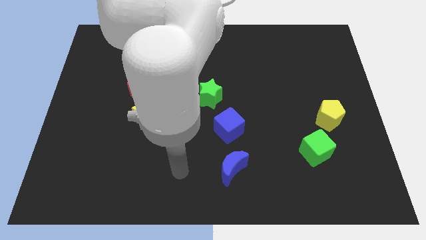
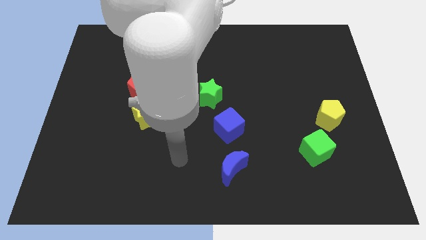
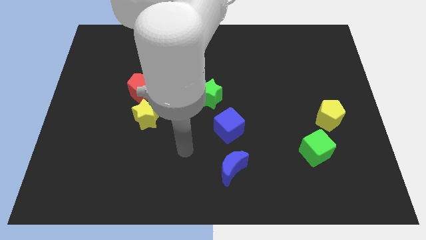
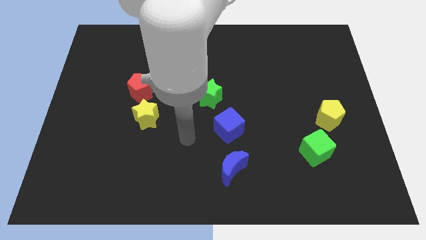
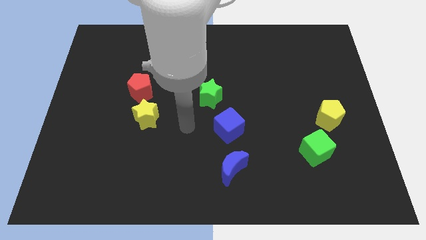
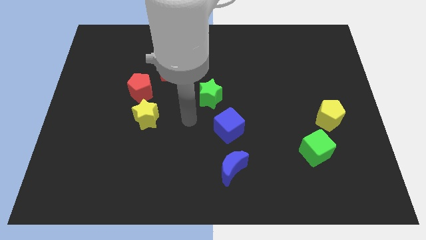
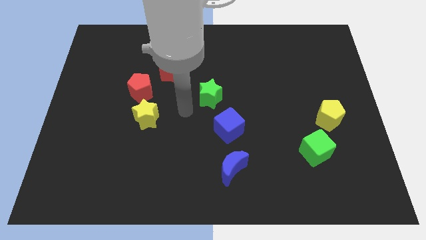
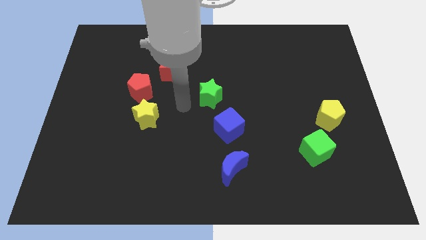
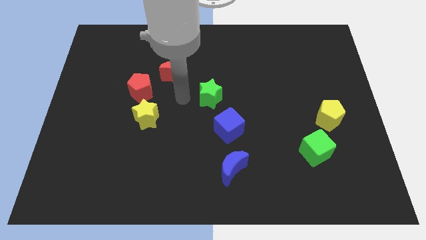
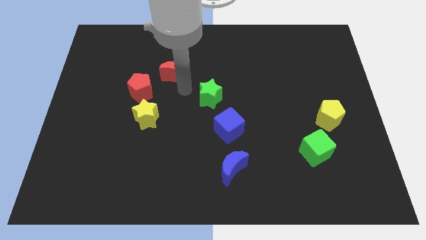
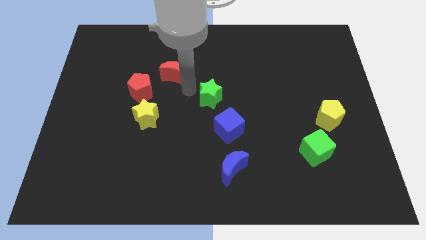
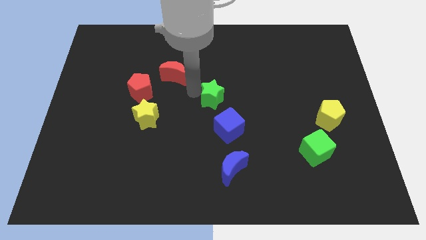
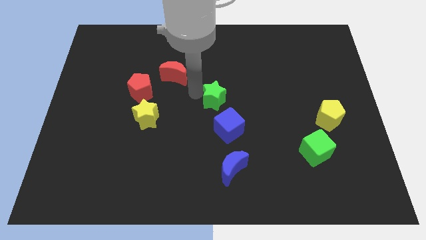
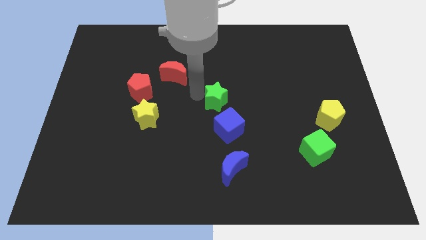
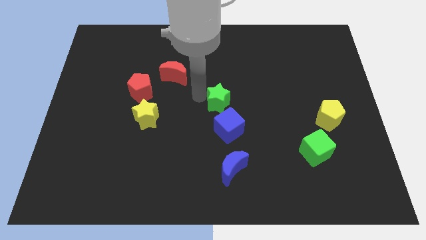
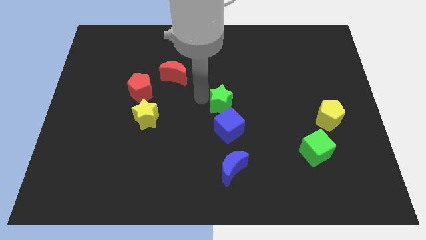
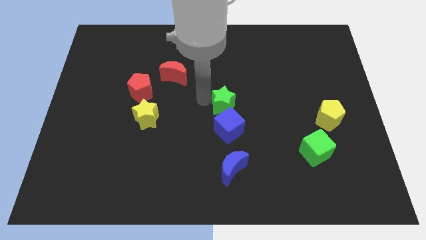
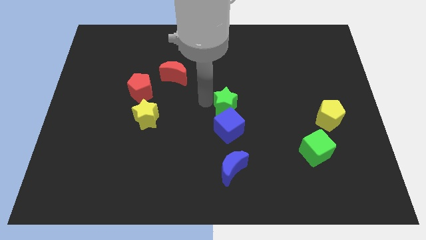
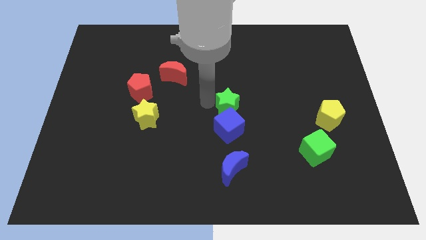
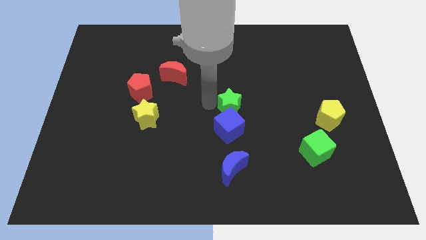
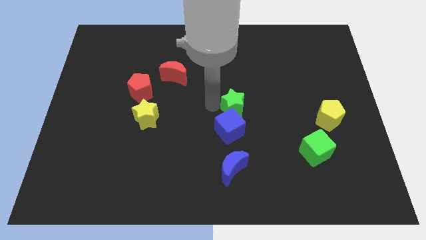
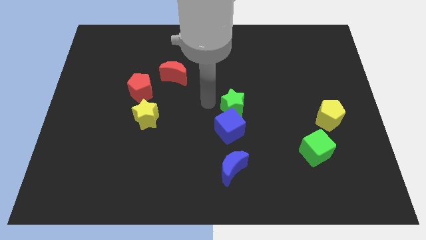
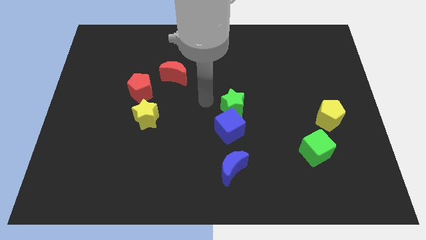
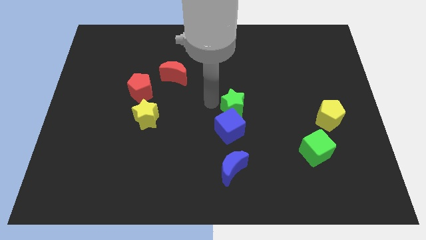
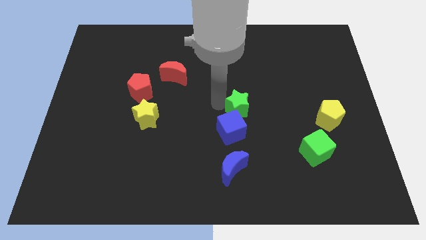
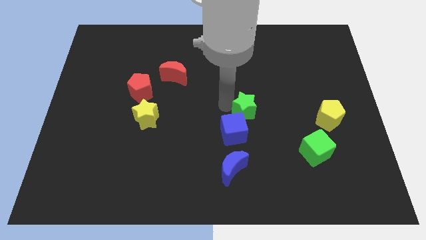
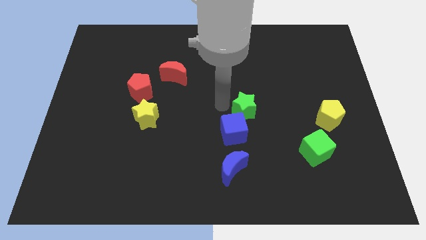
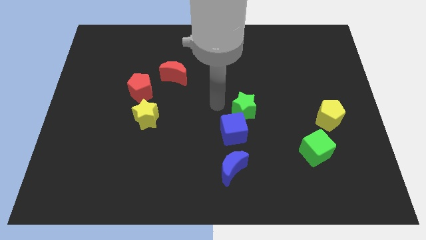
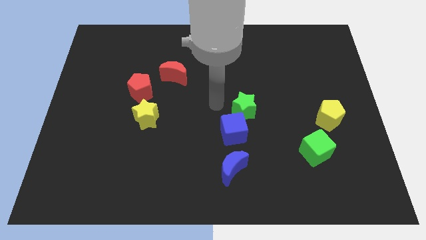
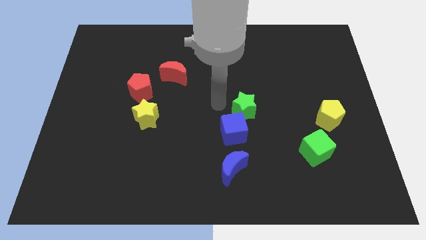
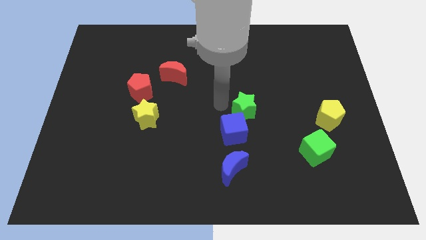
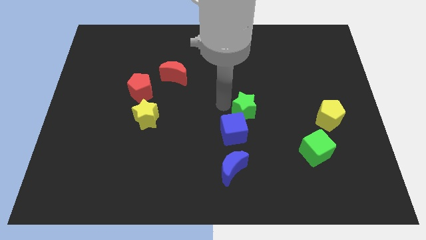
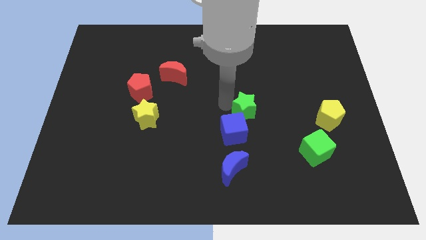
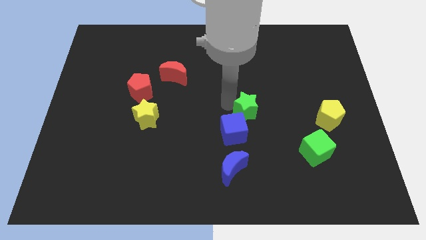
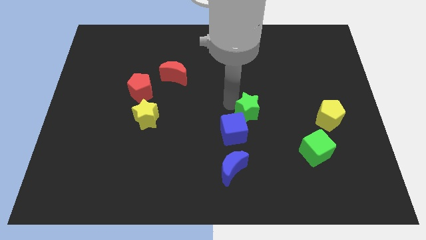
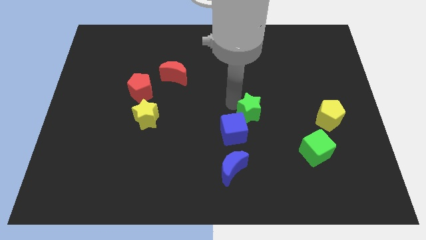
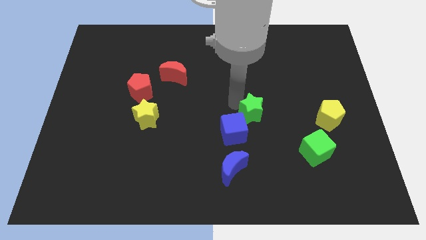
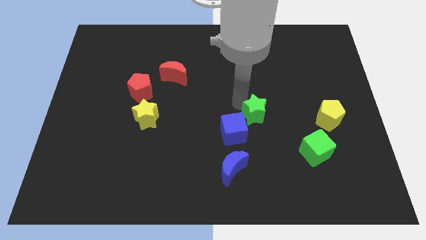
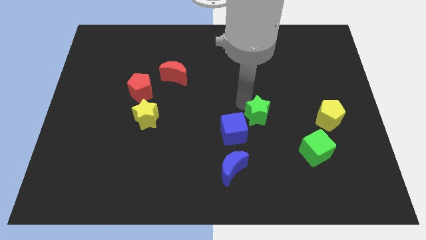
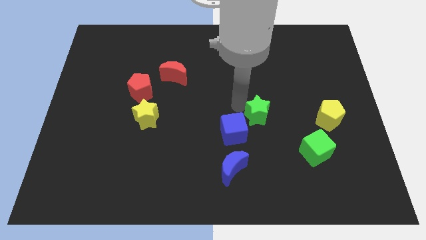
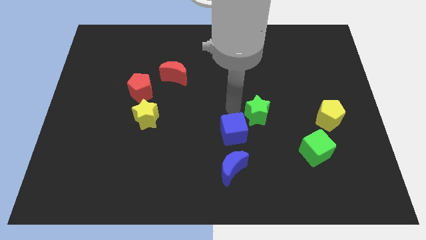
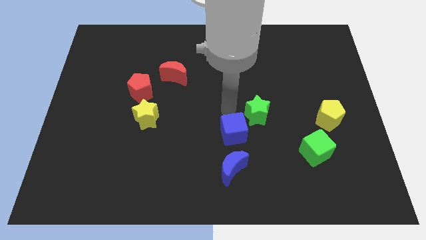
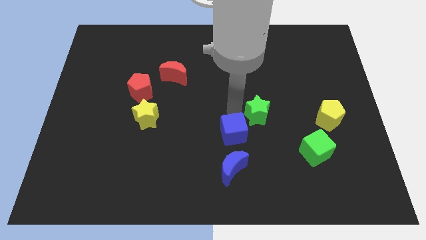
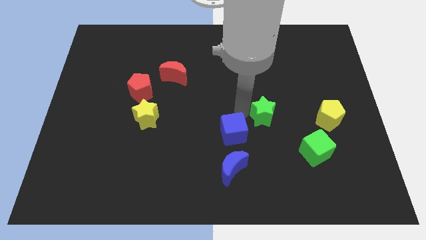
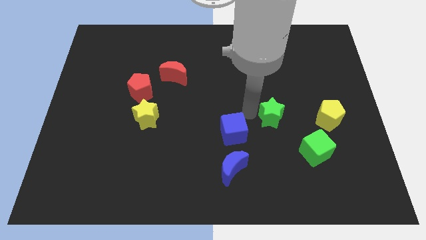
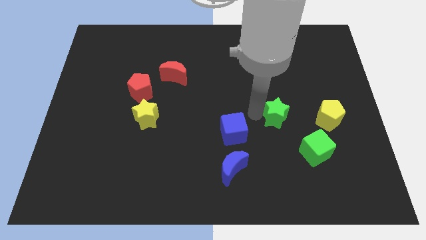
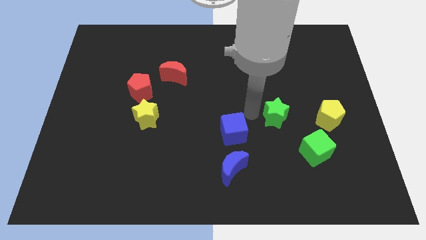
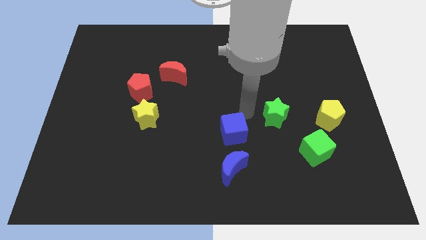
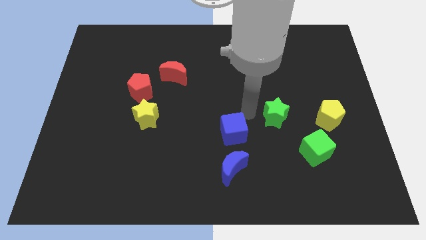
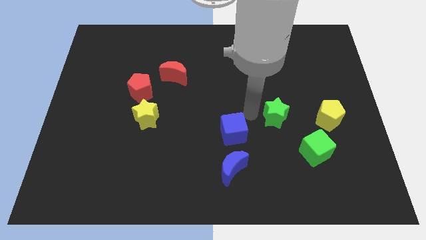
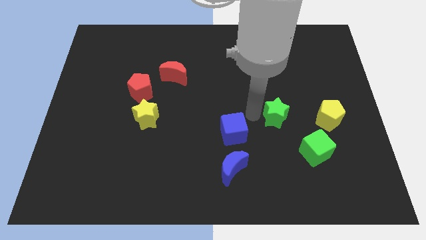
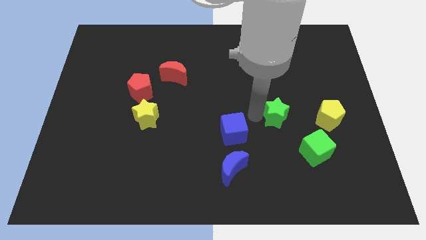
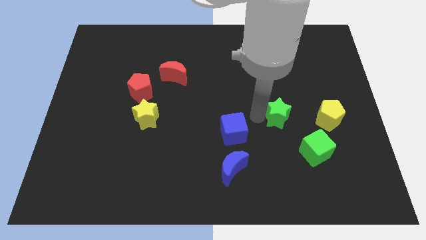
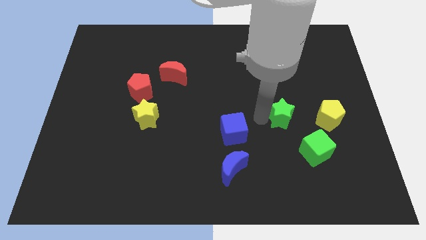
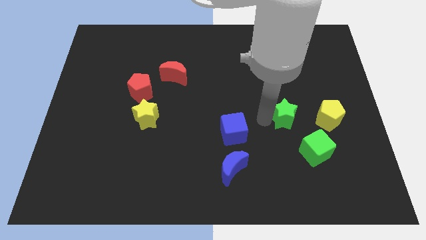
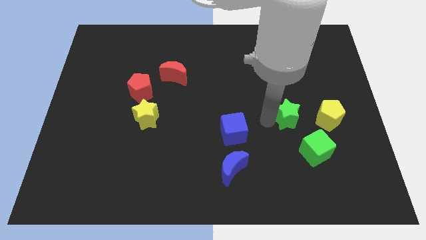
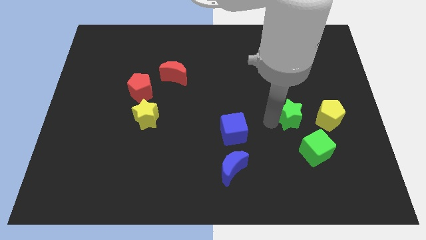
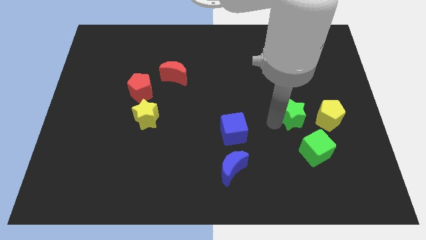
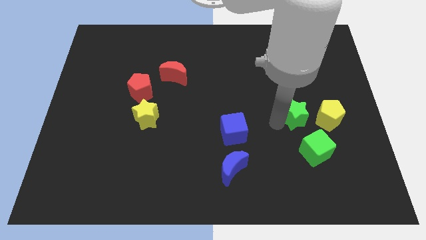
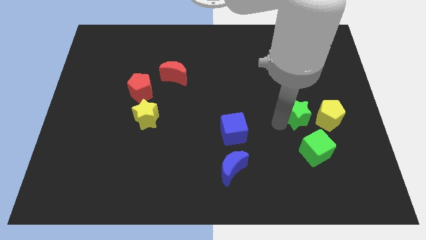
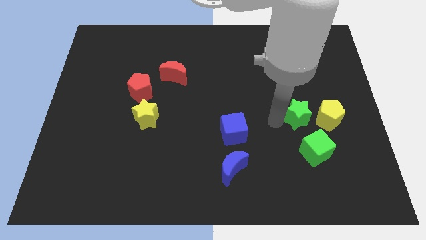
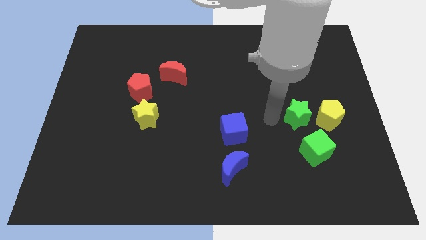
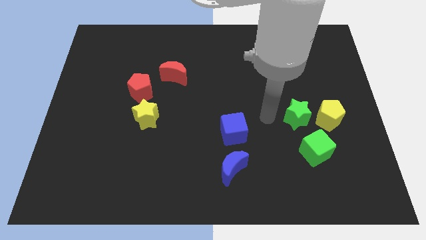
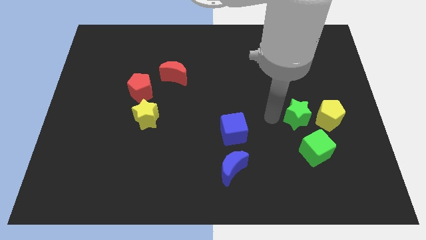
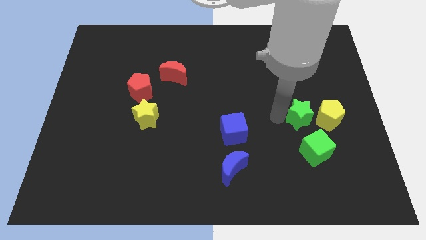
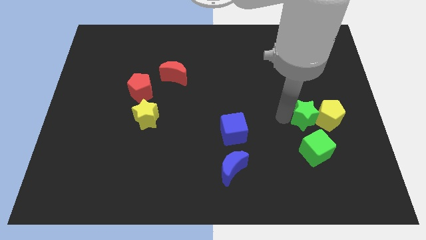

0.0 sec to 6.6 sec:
slide the green star to the yellow pentagon

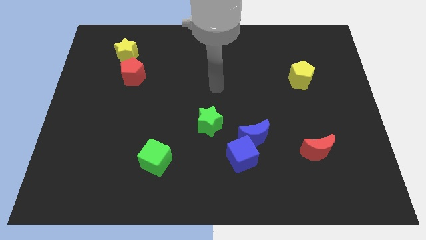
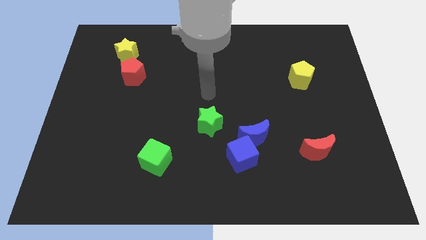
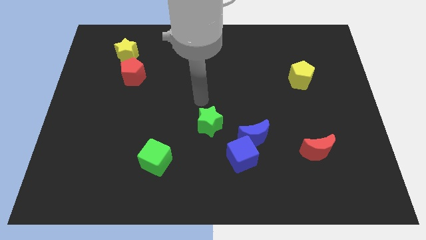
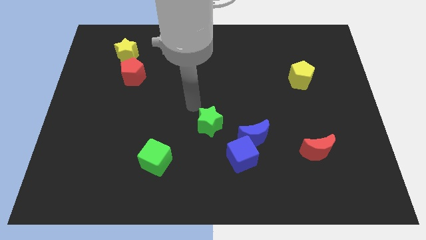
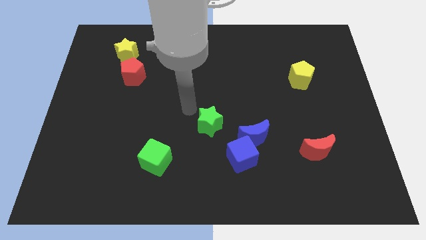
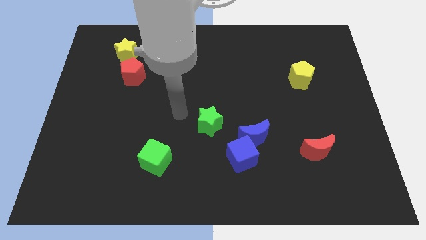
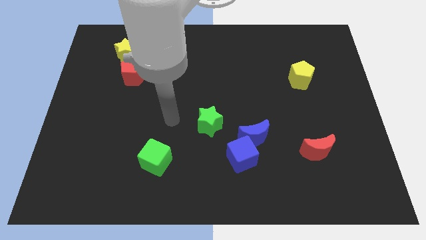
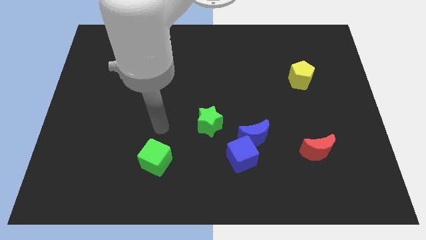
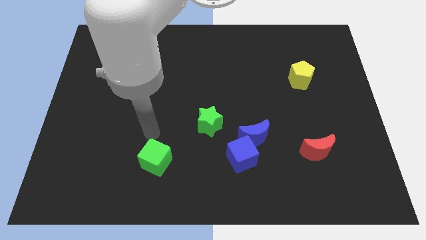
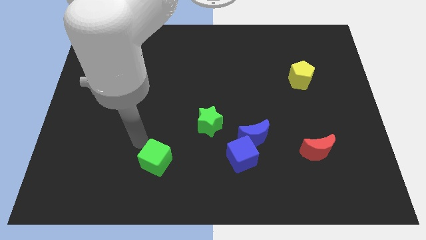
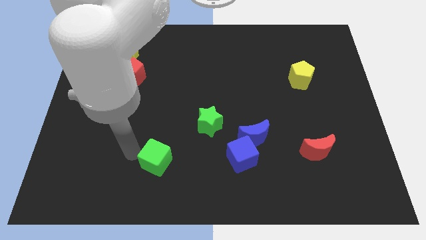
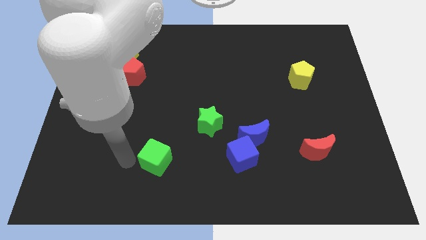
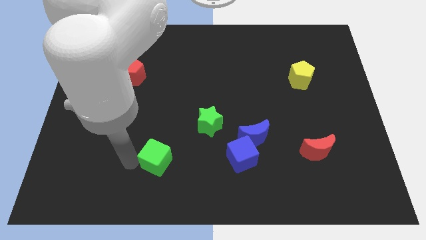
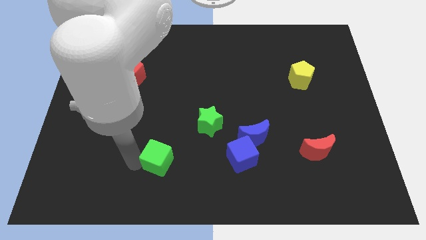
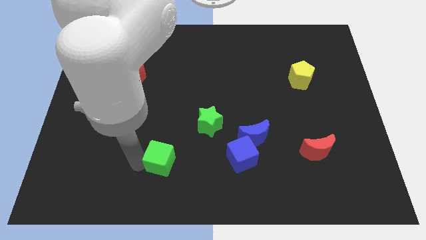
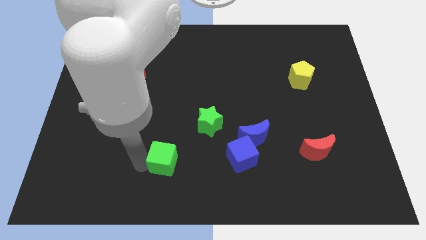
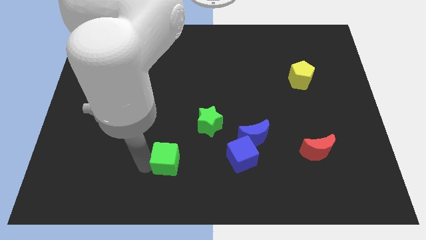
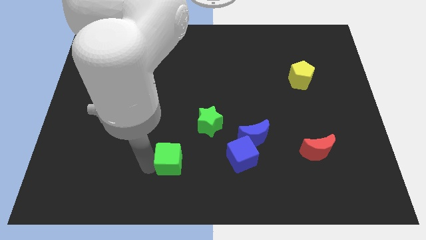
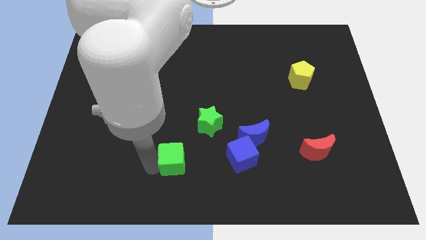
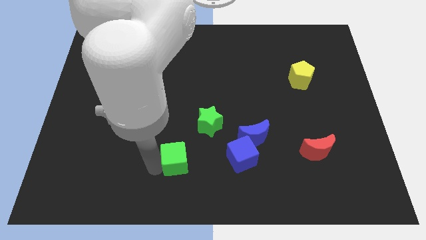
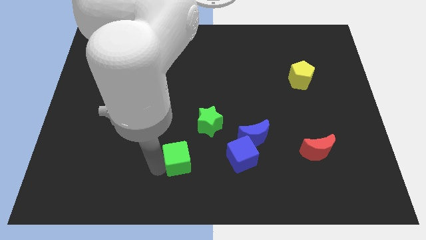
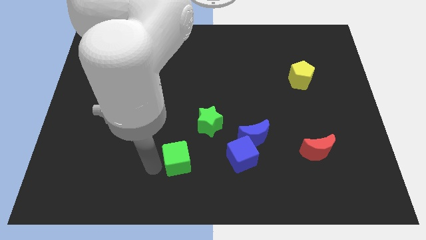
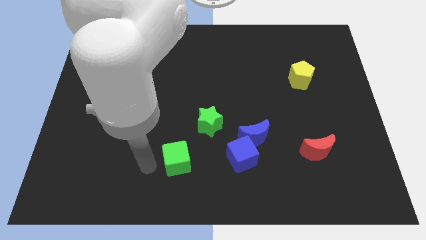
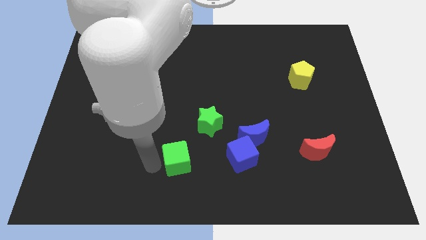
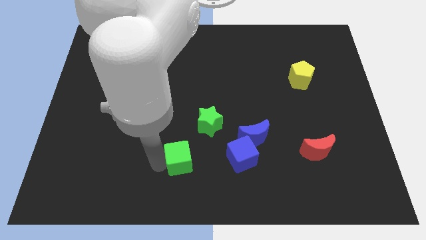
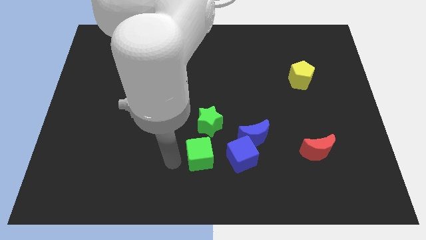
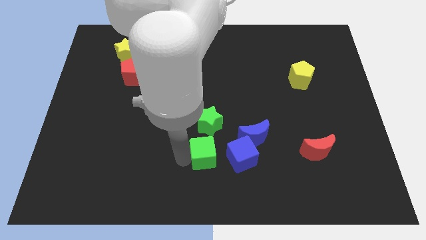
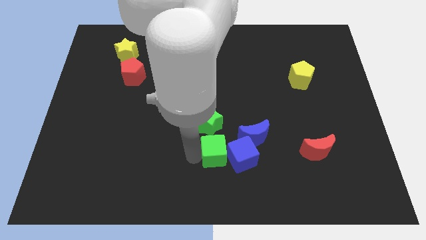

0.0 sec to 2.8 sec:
put the green cube close to the blue cube
